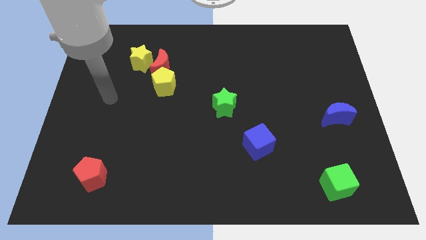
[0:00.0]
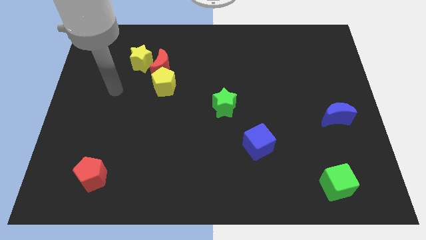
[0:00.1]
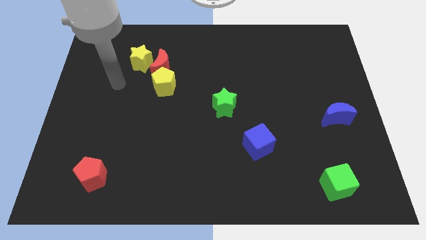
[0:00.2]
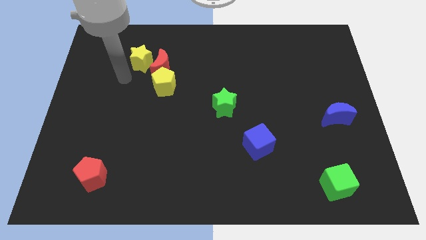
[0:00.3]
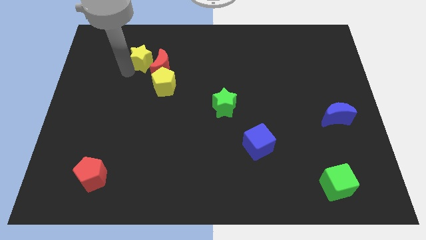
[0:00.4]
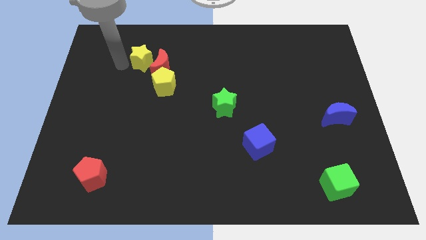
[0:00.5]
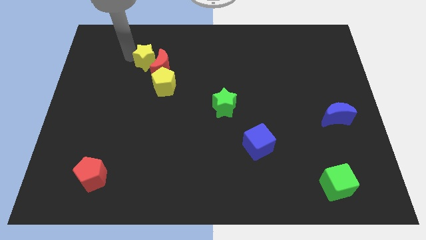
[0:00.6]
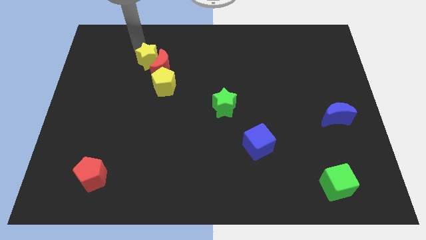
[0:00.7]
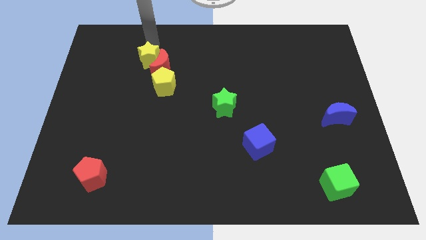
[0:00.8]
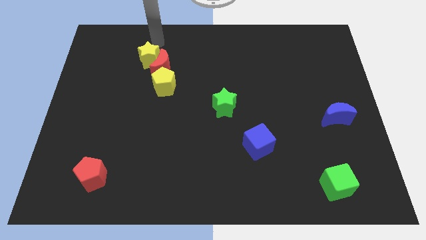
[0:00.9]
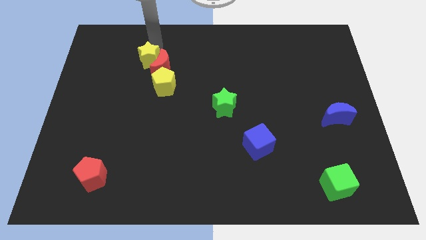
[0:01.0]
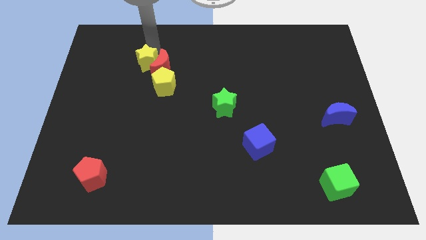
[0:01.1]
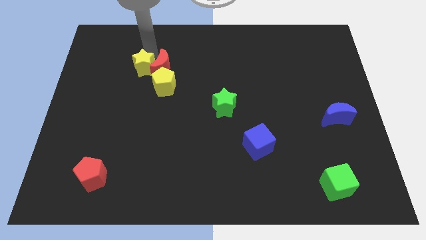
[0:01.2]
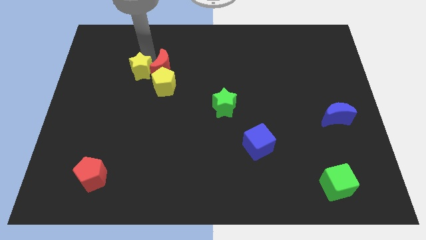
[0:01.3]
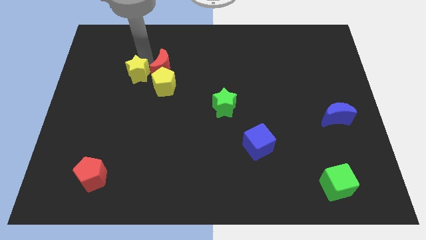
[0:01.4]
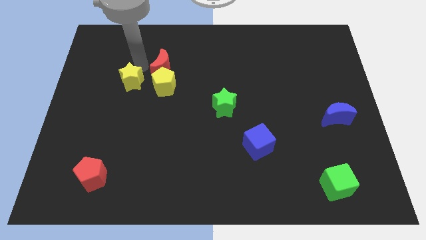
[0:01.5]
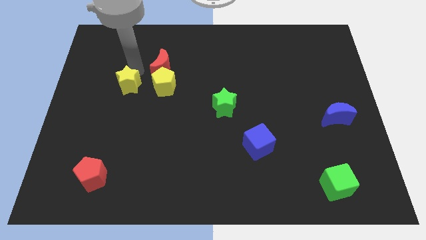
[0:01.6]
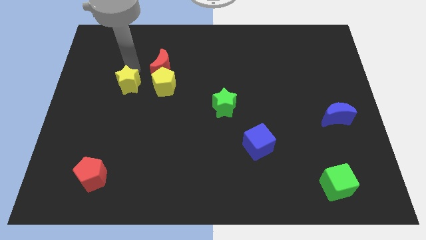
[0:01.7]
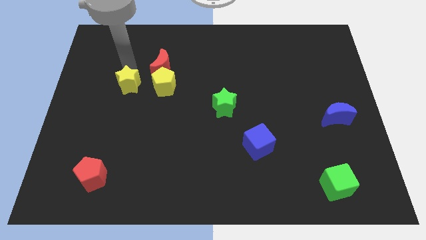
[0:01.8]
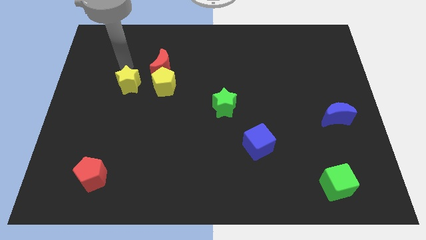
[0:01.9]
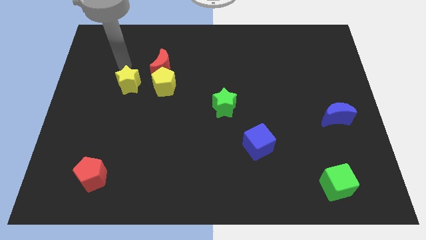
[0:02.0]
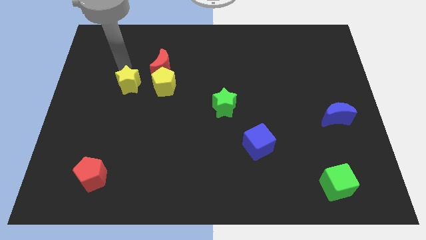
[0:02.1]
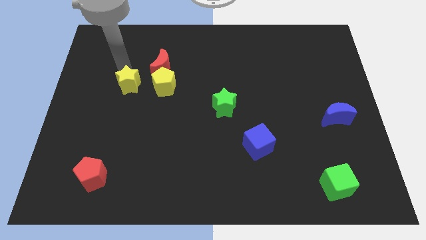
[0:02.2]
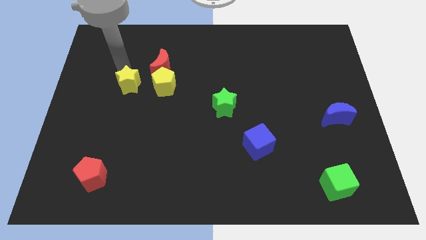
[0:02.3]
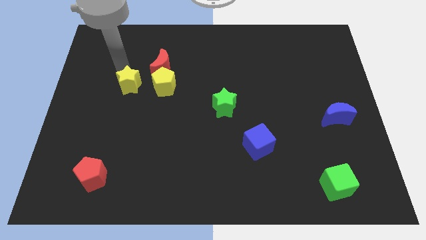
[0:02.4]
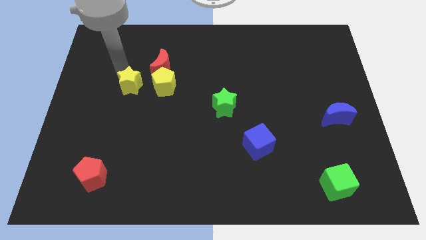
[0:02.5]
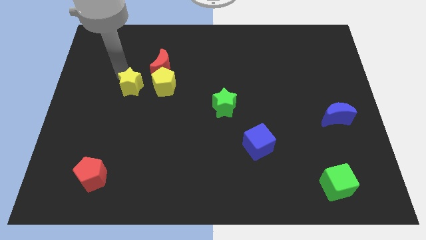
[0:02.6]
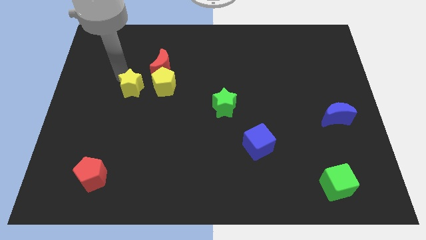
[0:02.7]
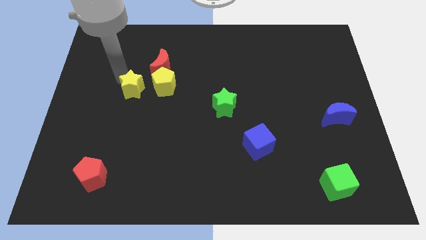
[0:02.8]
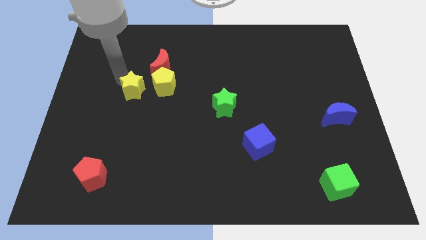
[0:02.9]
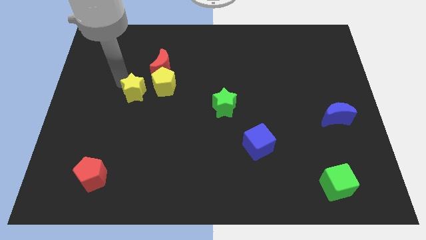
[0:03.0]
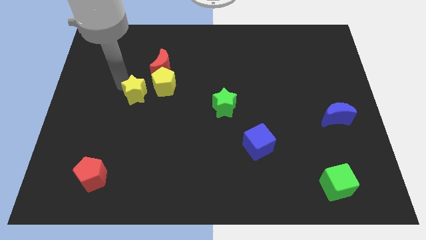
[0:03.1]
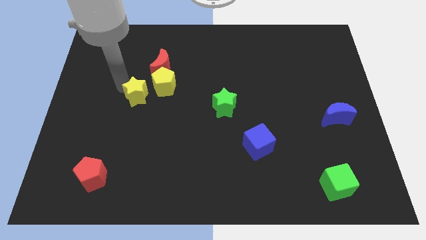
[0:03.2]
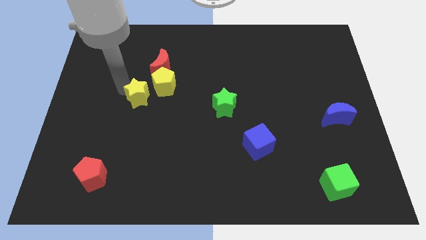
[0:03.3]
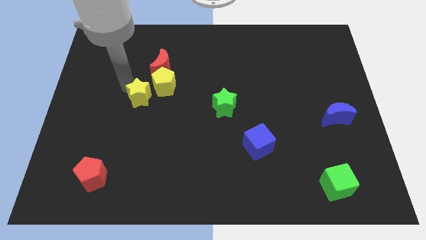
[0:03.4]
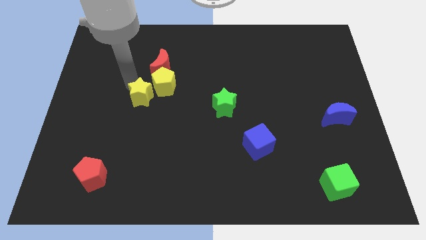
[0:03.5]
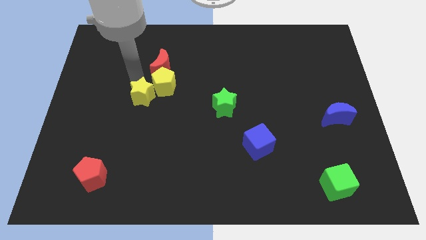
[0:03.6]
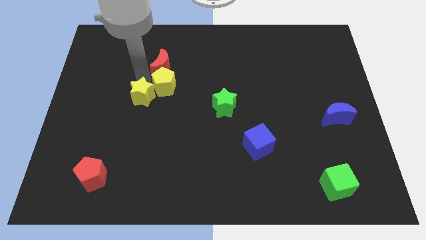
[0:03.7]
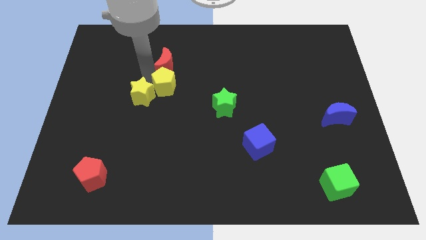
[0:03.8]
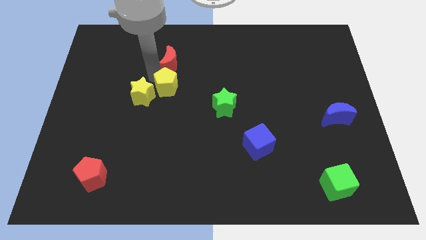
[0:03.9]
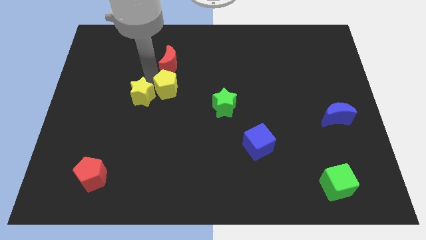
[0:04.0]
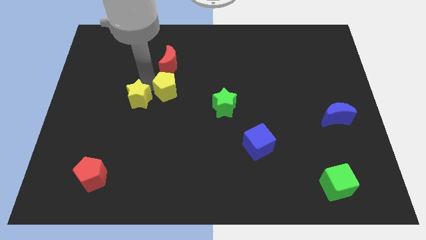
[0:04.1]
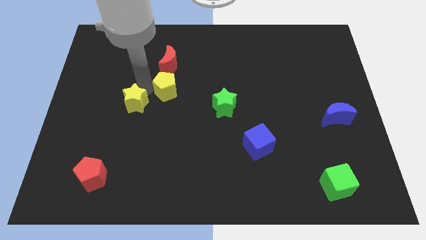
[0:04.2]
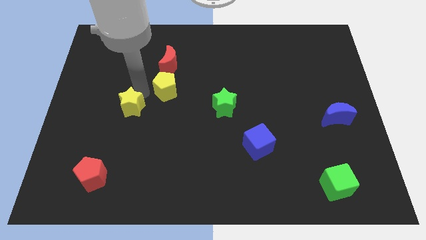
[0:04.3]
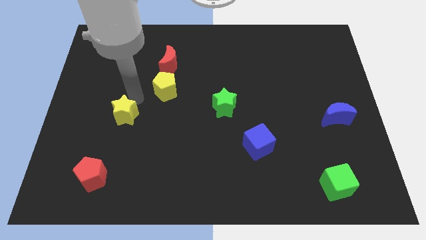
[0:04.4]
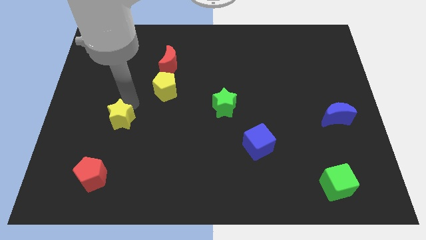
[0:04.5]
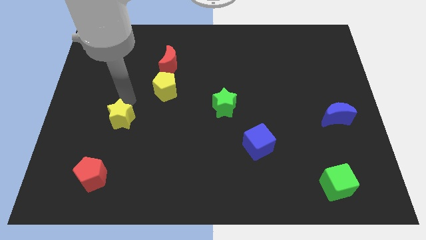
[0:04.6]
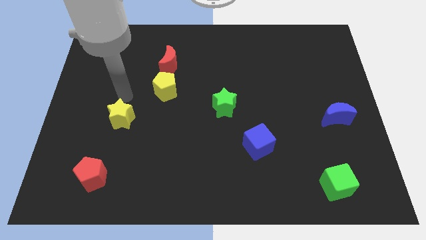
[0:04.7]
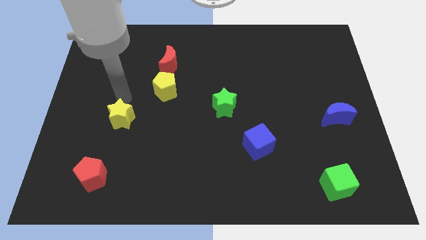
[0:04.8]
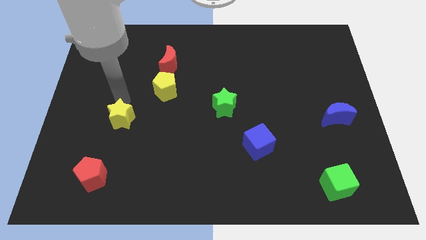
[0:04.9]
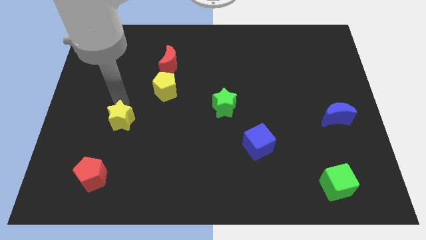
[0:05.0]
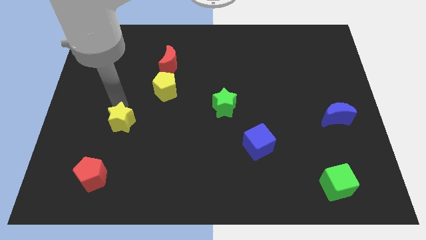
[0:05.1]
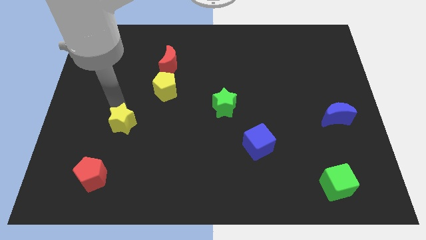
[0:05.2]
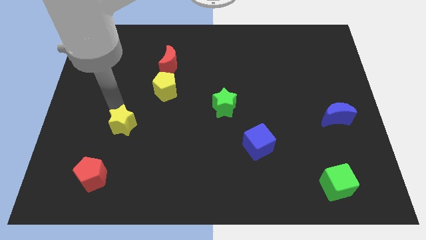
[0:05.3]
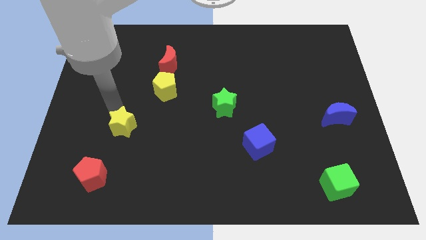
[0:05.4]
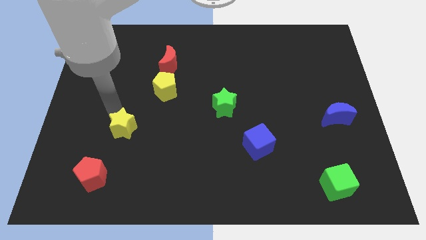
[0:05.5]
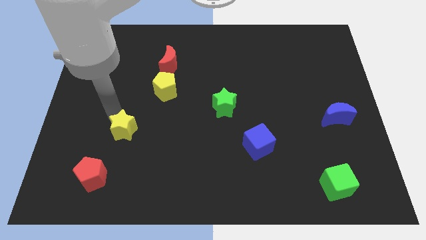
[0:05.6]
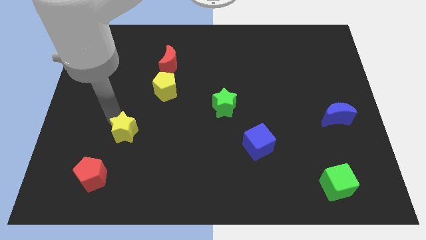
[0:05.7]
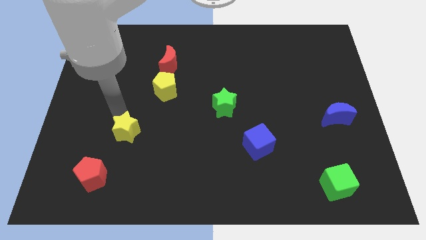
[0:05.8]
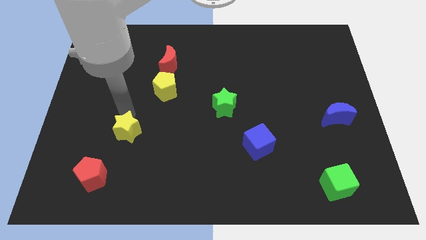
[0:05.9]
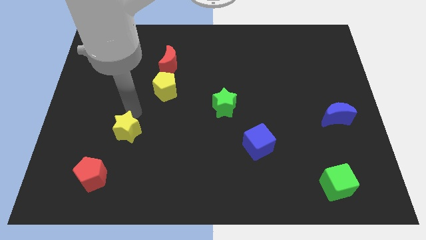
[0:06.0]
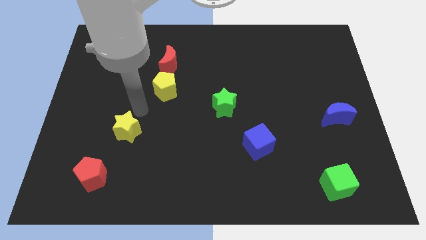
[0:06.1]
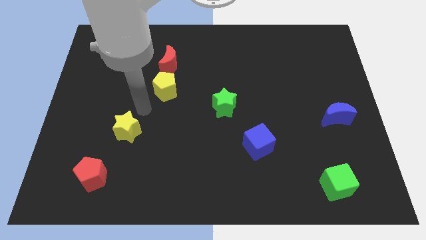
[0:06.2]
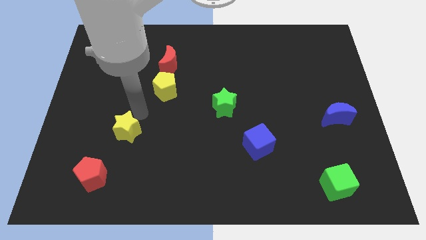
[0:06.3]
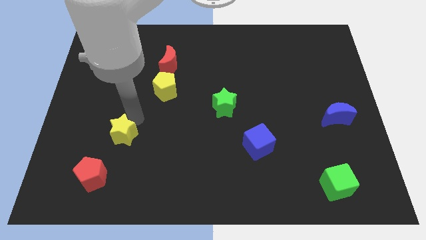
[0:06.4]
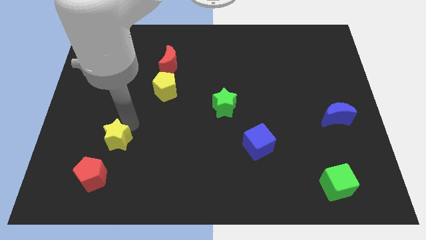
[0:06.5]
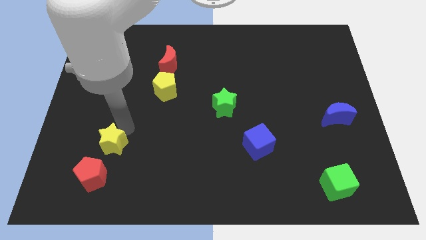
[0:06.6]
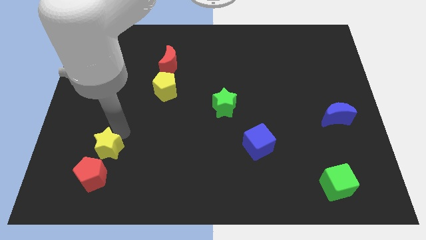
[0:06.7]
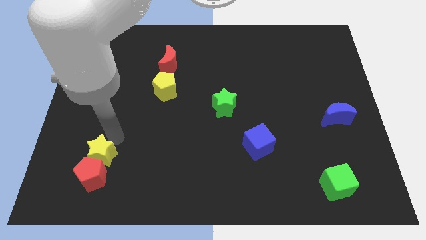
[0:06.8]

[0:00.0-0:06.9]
slide the yellow star close to the red pentagon
